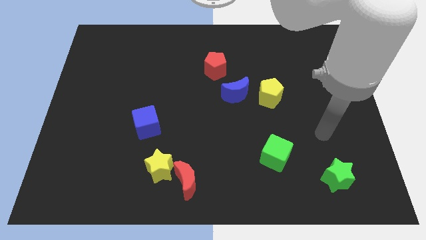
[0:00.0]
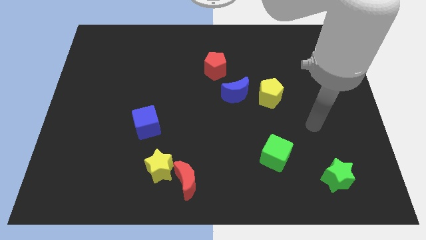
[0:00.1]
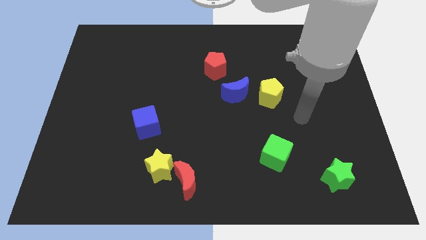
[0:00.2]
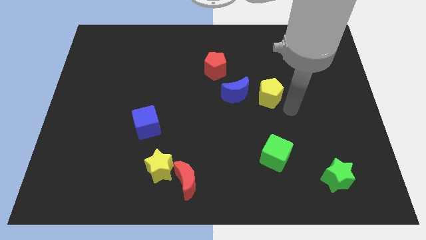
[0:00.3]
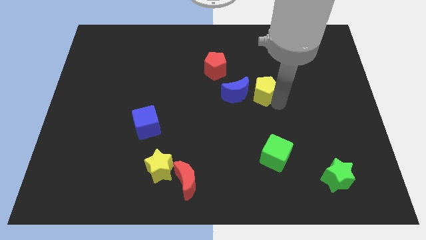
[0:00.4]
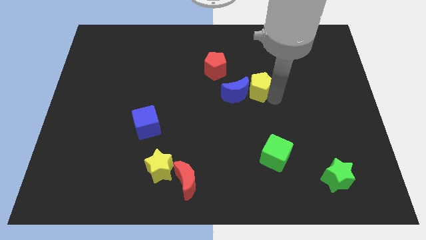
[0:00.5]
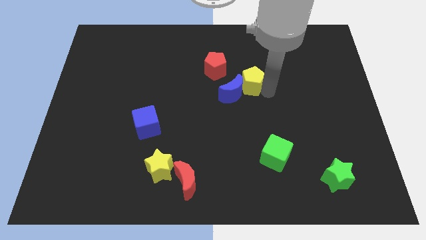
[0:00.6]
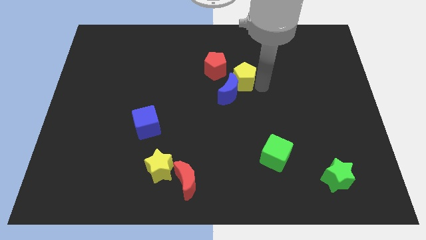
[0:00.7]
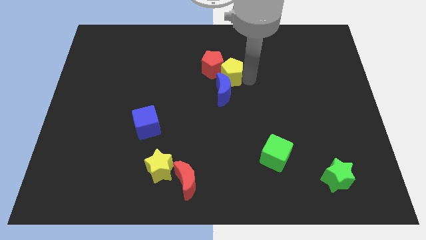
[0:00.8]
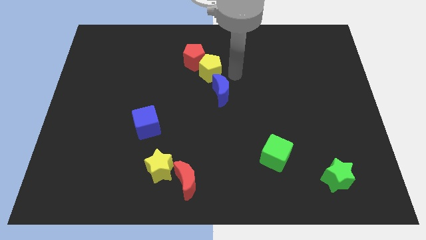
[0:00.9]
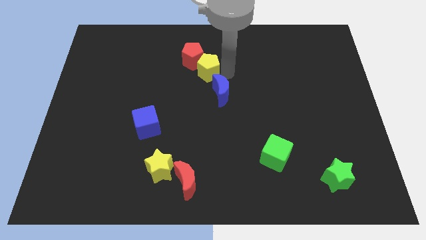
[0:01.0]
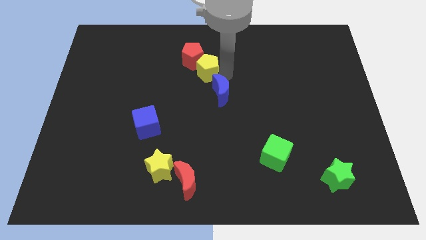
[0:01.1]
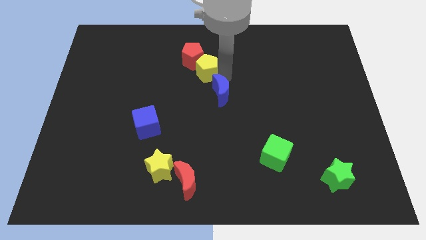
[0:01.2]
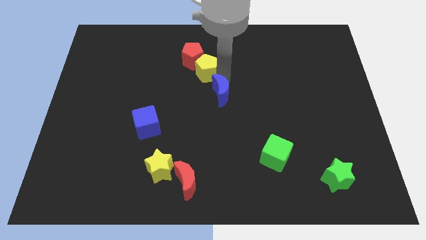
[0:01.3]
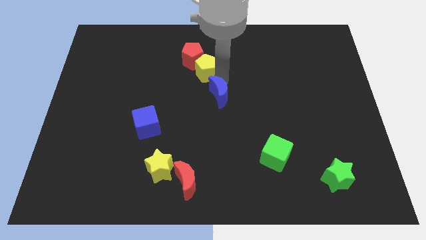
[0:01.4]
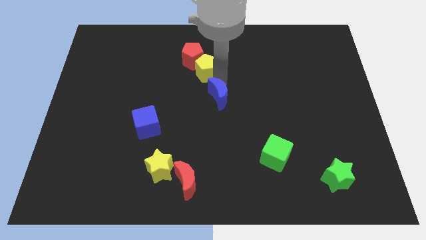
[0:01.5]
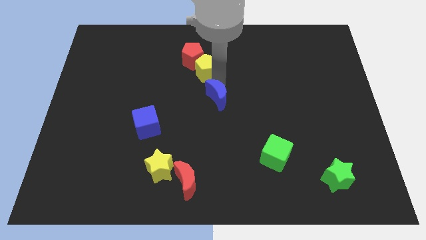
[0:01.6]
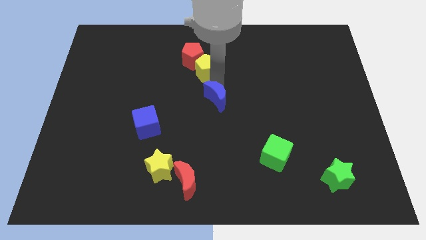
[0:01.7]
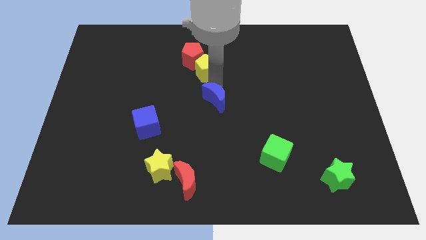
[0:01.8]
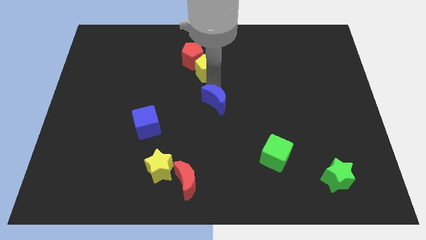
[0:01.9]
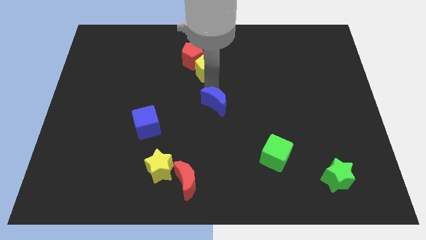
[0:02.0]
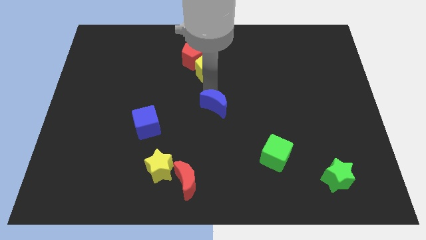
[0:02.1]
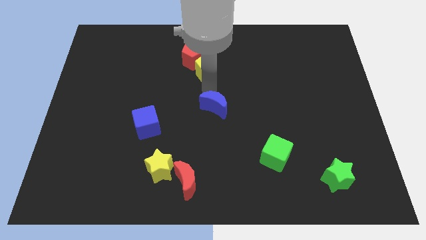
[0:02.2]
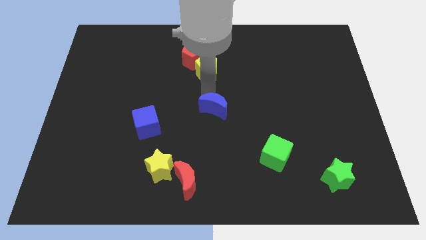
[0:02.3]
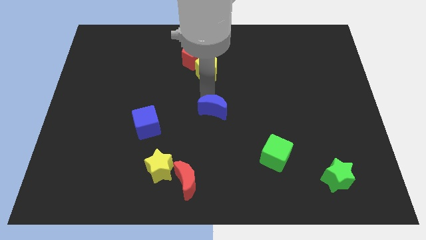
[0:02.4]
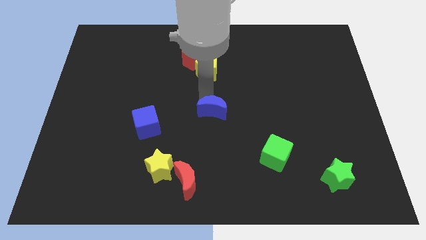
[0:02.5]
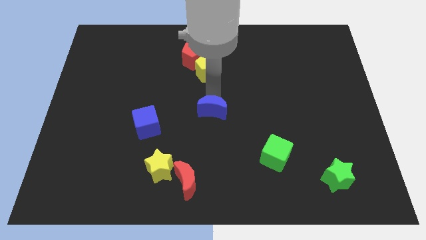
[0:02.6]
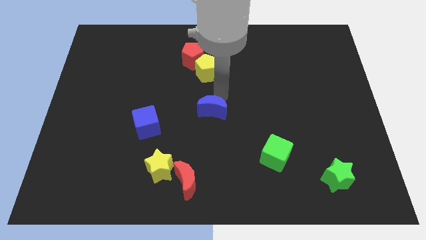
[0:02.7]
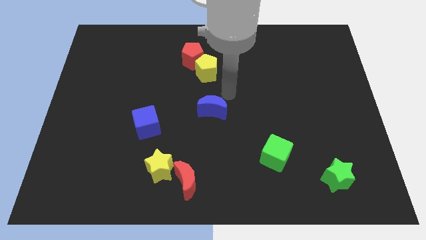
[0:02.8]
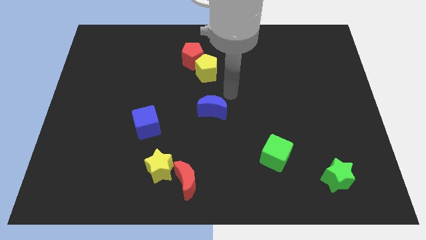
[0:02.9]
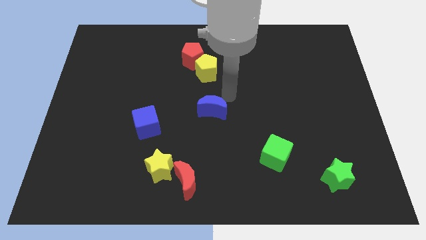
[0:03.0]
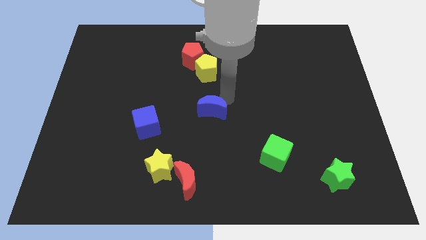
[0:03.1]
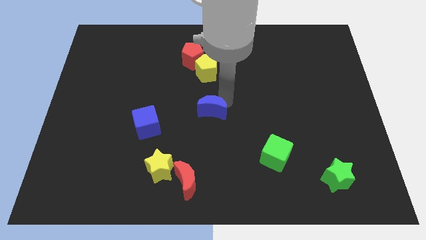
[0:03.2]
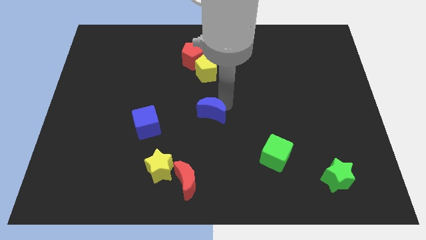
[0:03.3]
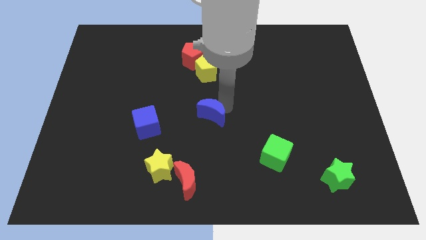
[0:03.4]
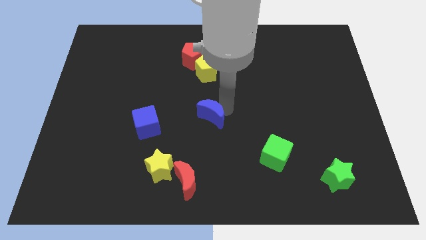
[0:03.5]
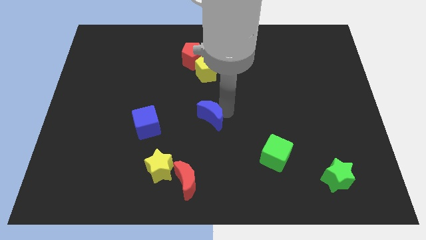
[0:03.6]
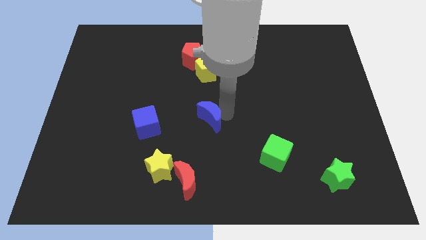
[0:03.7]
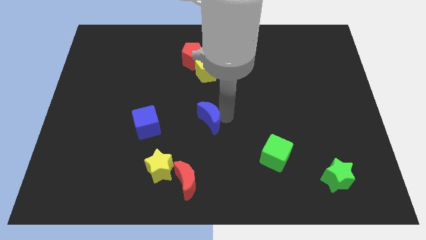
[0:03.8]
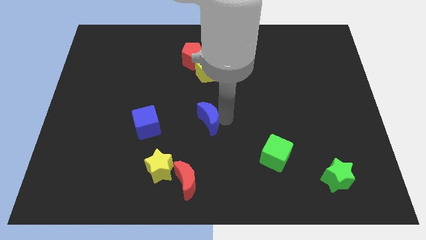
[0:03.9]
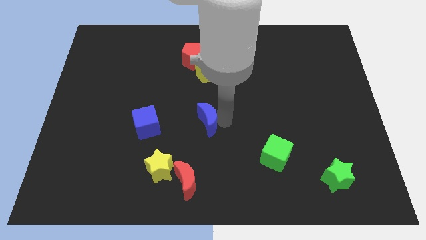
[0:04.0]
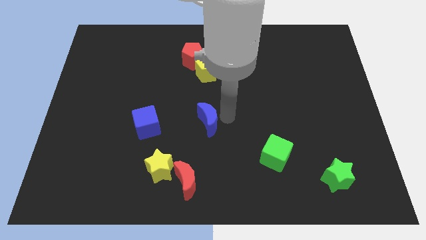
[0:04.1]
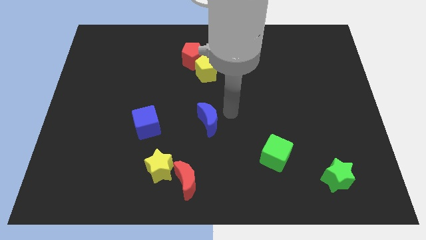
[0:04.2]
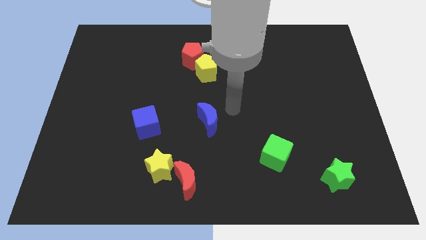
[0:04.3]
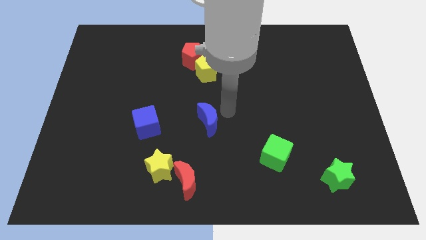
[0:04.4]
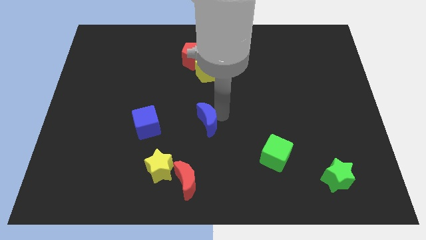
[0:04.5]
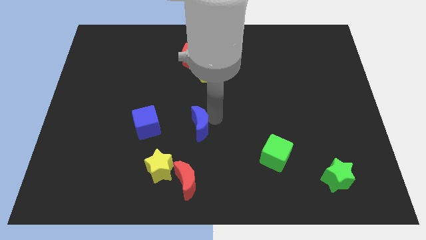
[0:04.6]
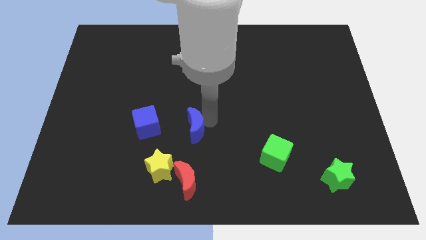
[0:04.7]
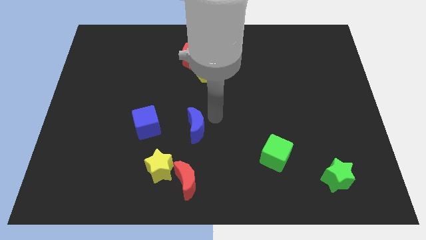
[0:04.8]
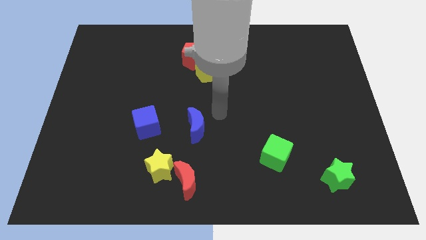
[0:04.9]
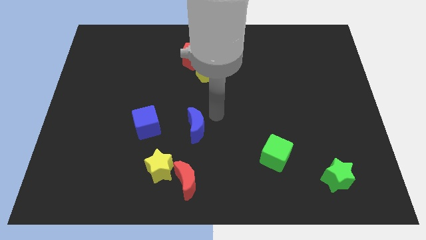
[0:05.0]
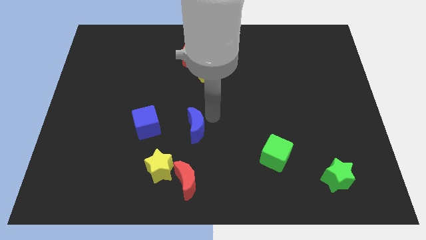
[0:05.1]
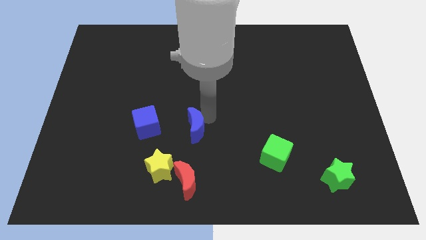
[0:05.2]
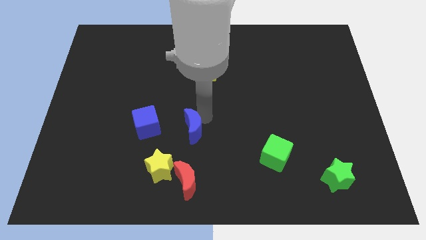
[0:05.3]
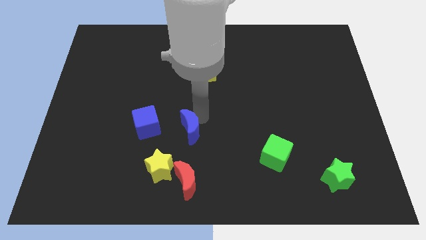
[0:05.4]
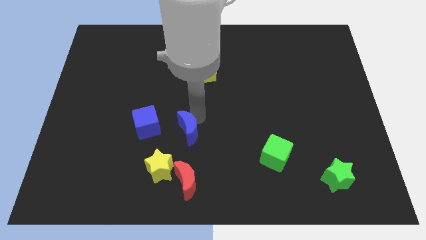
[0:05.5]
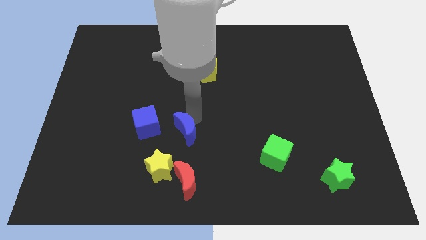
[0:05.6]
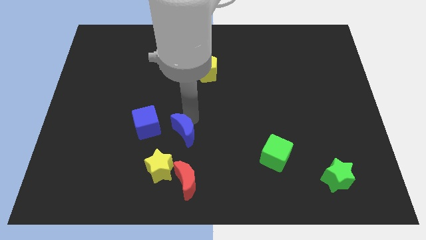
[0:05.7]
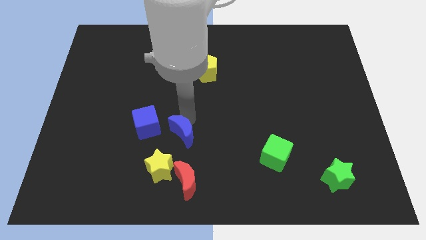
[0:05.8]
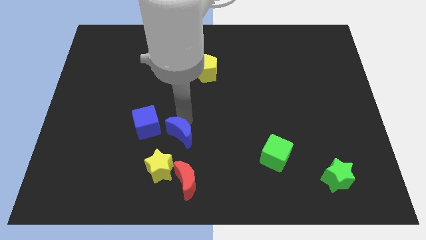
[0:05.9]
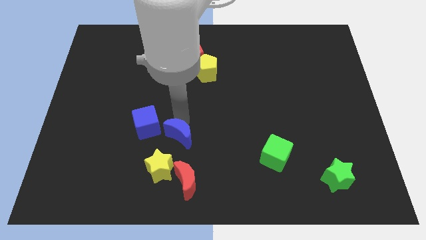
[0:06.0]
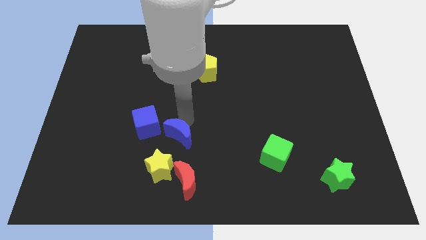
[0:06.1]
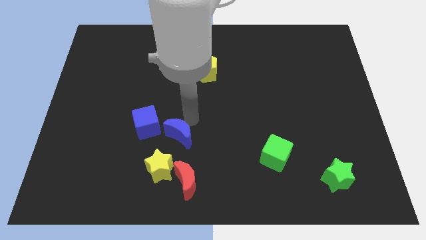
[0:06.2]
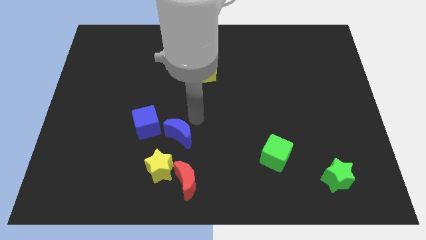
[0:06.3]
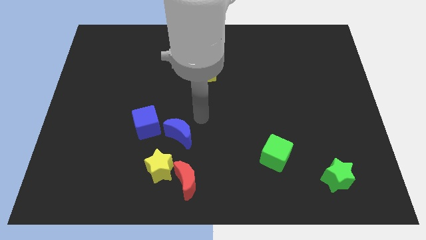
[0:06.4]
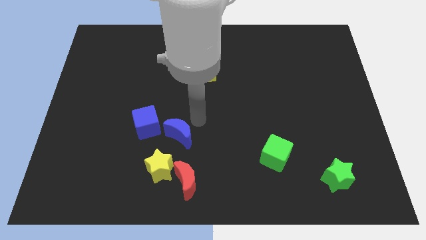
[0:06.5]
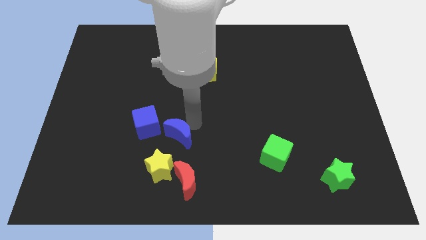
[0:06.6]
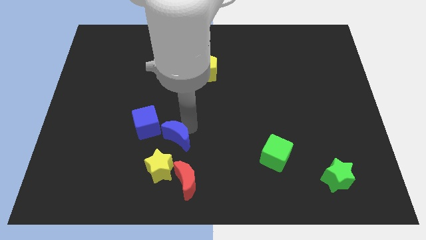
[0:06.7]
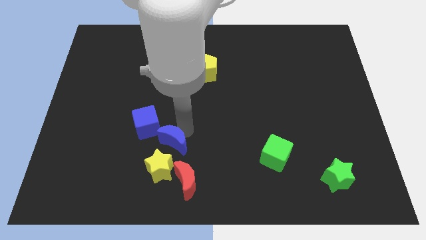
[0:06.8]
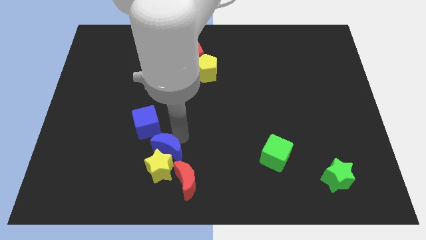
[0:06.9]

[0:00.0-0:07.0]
push the blue moon downwards and left

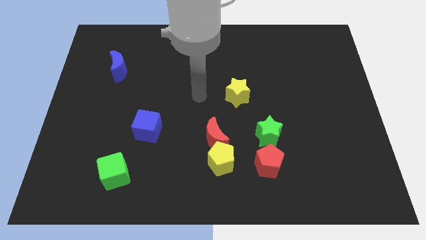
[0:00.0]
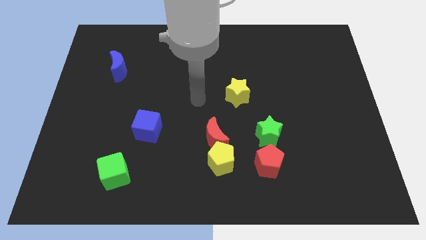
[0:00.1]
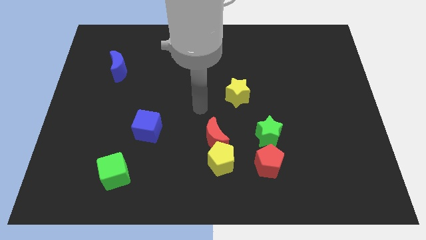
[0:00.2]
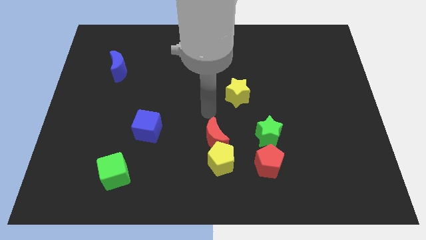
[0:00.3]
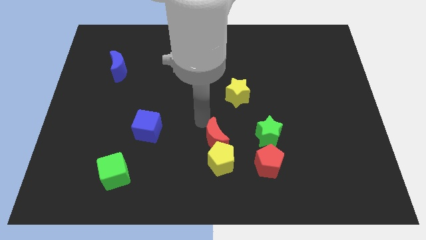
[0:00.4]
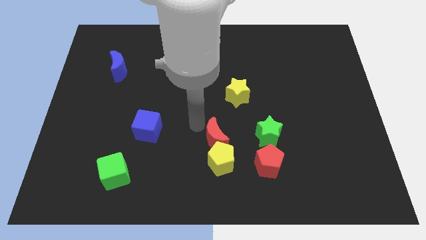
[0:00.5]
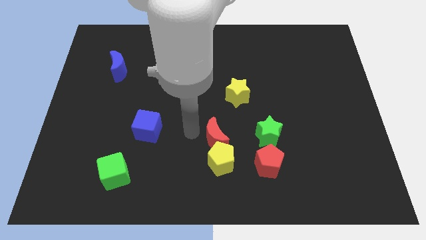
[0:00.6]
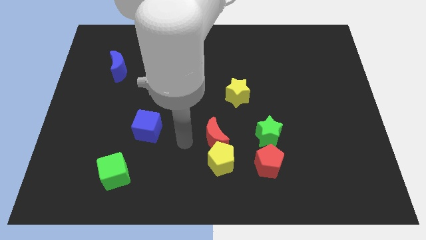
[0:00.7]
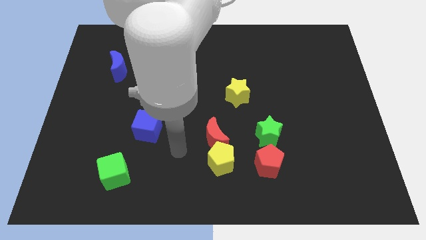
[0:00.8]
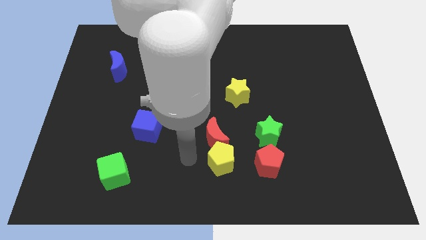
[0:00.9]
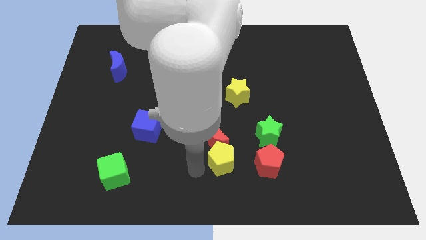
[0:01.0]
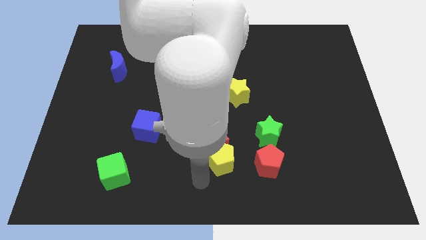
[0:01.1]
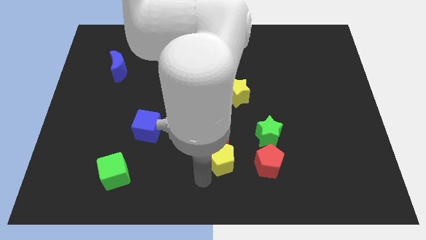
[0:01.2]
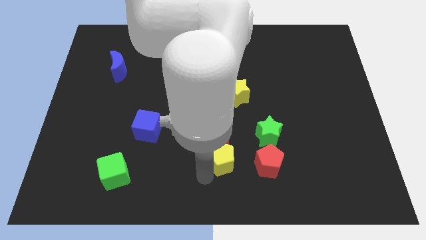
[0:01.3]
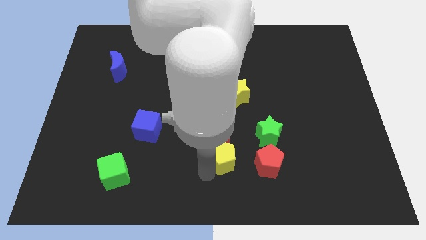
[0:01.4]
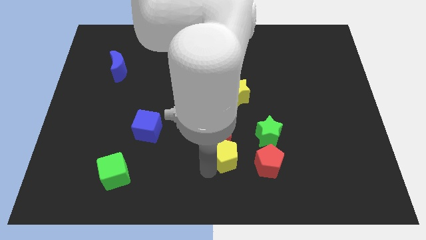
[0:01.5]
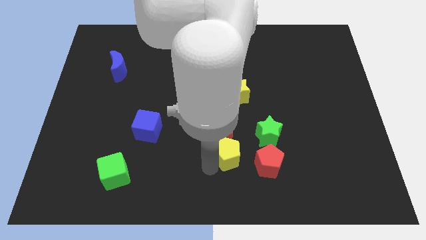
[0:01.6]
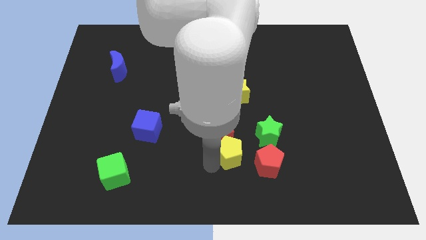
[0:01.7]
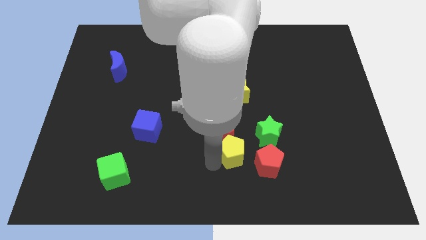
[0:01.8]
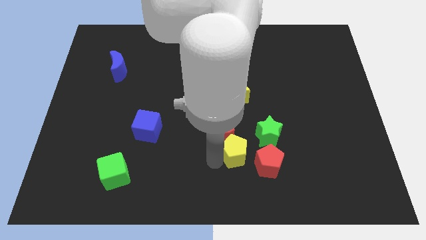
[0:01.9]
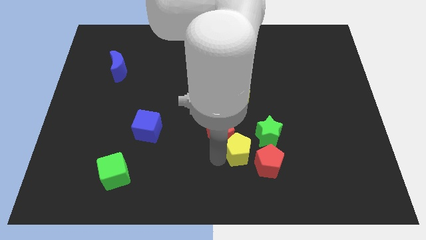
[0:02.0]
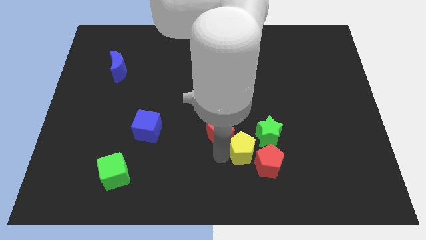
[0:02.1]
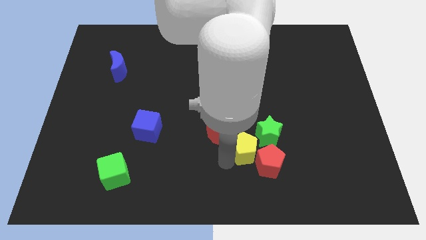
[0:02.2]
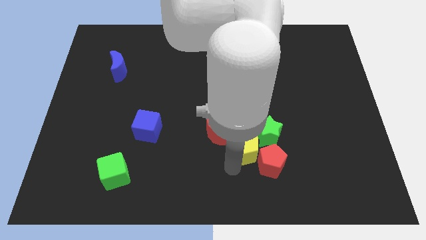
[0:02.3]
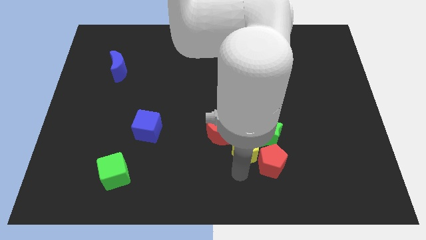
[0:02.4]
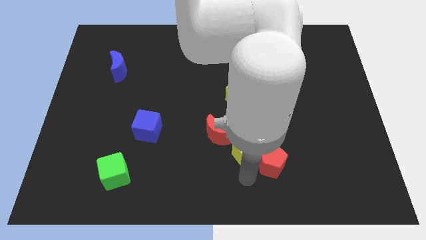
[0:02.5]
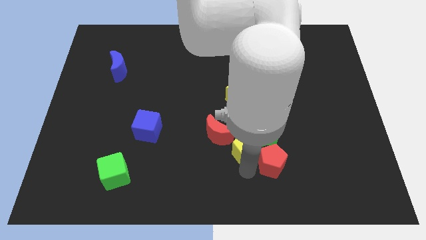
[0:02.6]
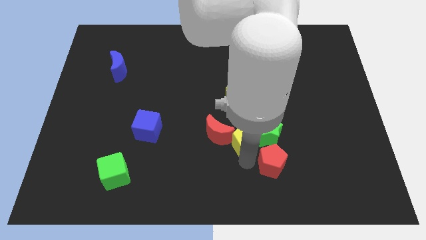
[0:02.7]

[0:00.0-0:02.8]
push the yellow pentagon diagonally up and right slightly
